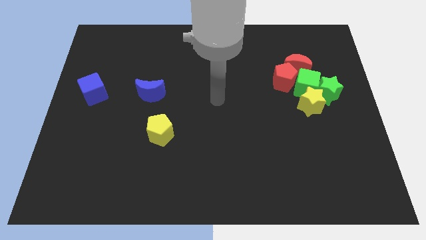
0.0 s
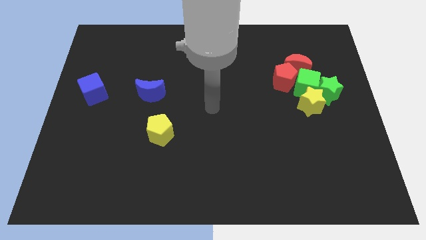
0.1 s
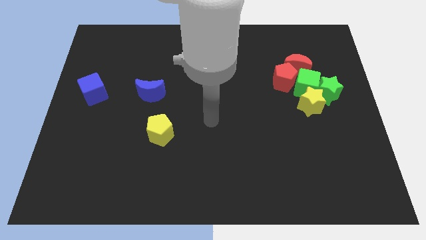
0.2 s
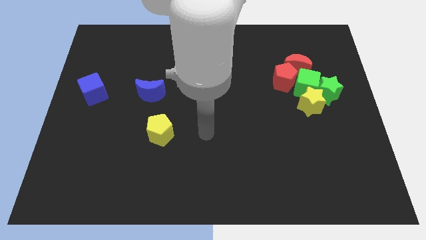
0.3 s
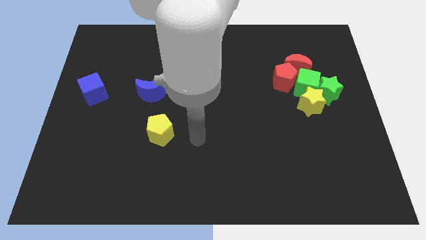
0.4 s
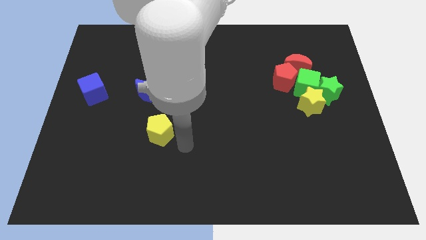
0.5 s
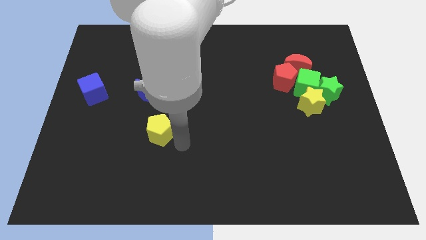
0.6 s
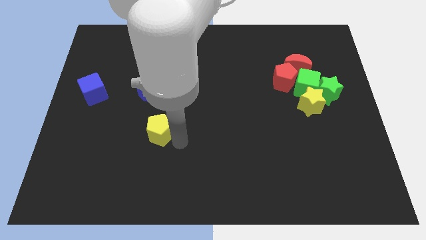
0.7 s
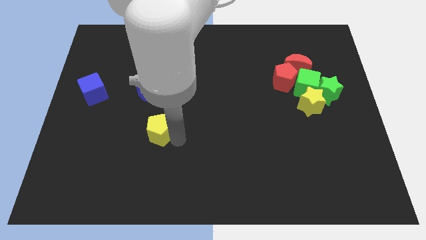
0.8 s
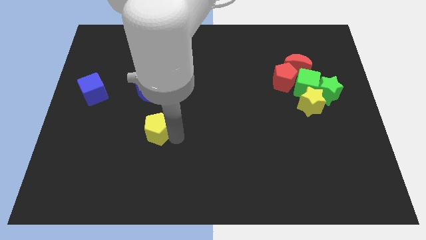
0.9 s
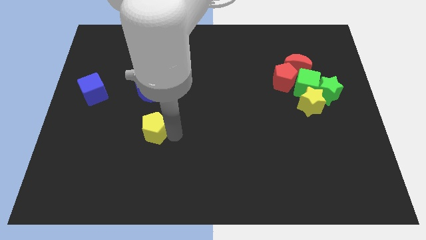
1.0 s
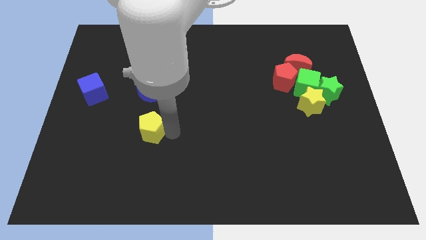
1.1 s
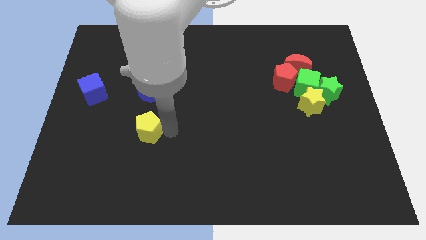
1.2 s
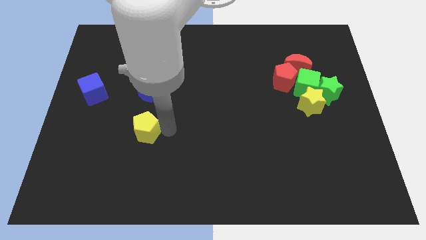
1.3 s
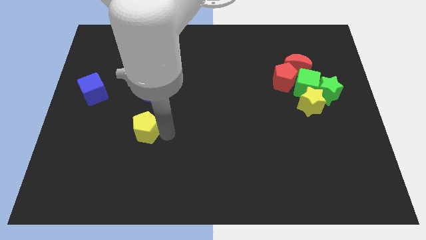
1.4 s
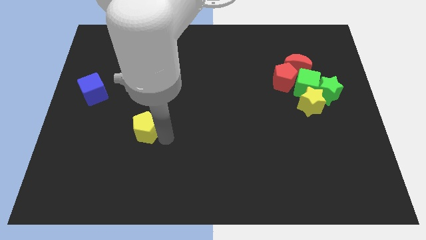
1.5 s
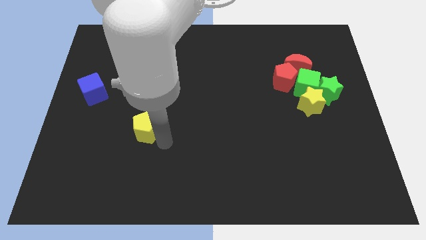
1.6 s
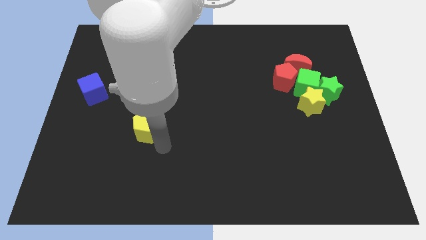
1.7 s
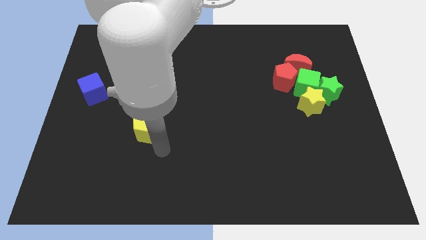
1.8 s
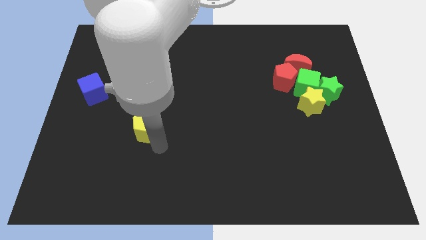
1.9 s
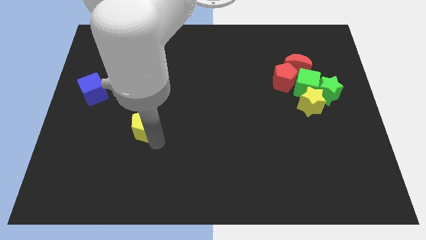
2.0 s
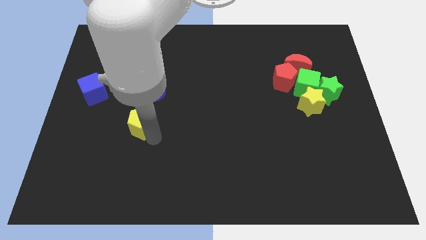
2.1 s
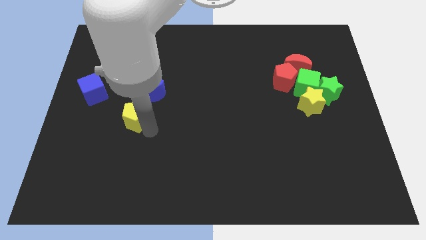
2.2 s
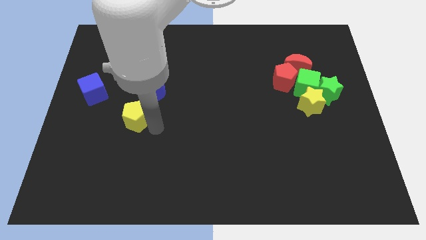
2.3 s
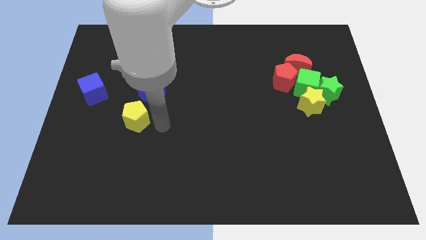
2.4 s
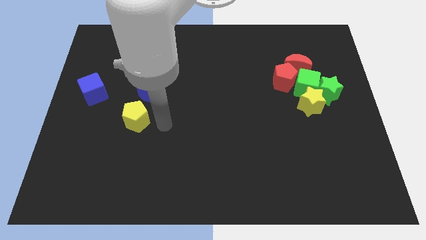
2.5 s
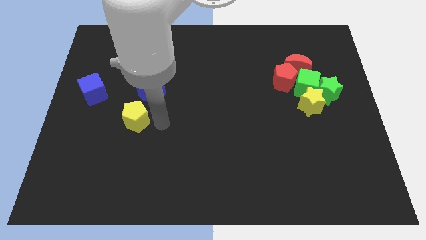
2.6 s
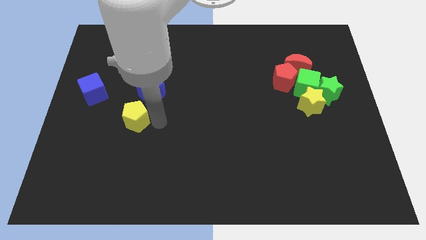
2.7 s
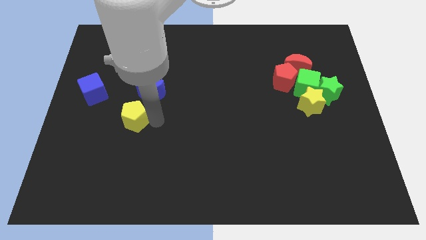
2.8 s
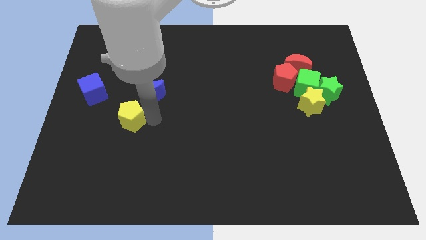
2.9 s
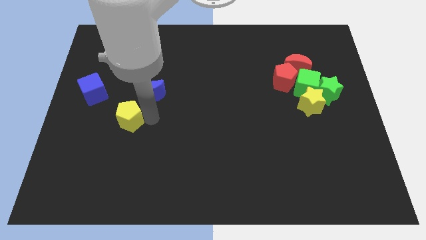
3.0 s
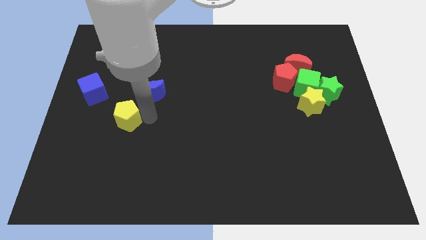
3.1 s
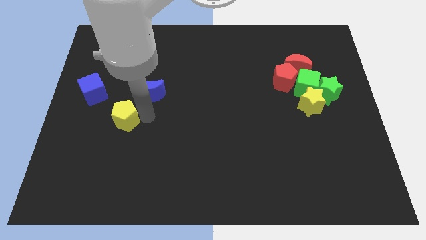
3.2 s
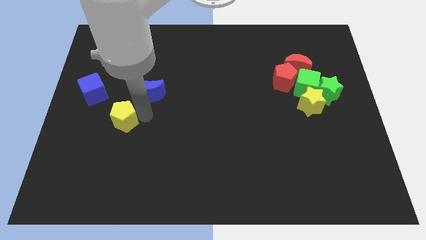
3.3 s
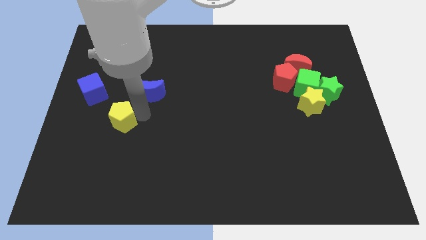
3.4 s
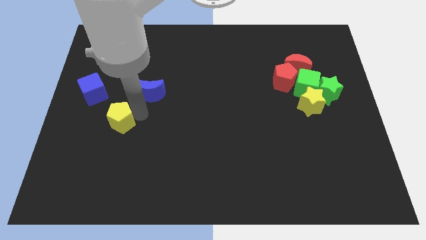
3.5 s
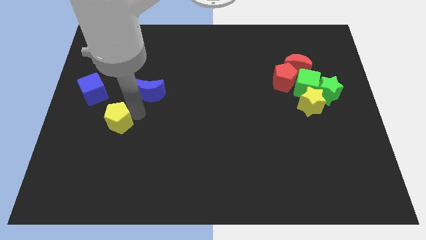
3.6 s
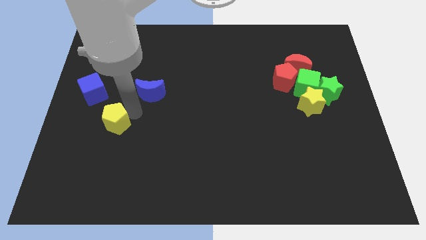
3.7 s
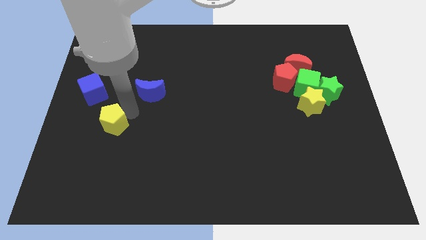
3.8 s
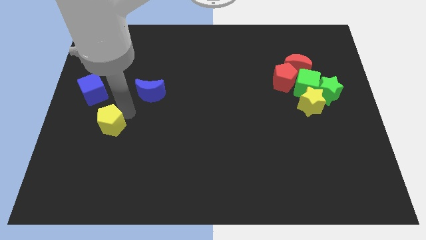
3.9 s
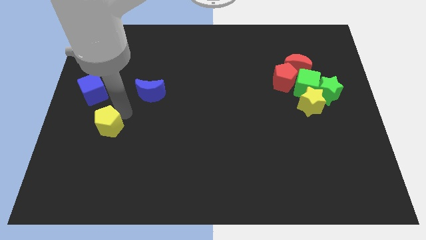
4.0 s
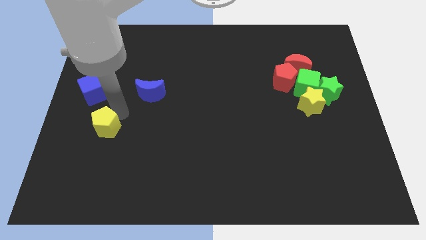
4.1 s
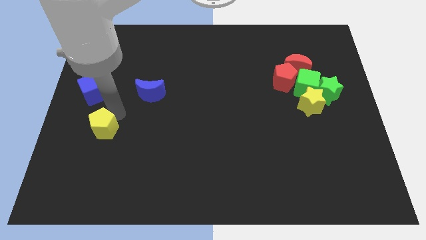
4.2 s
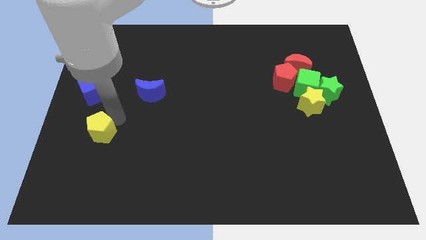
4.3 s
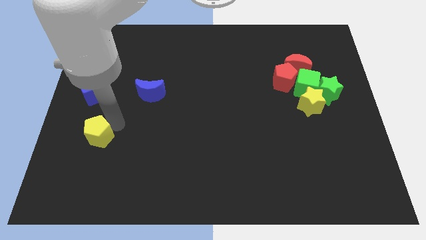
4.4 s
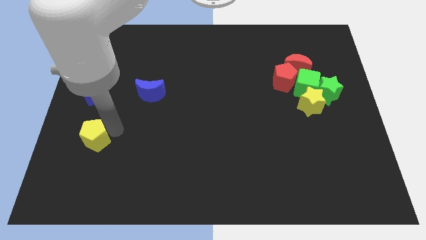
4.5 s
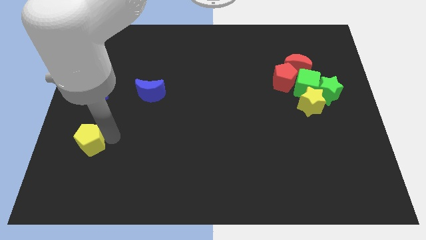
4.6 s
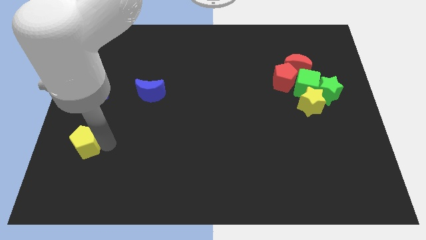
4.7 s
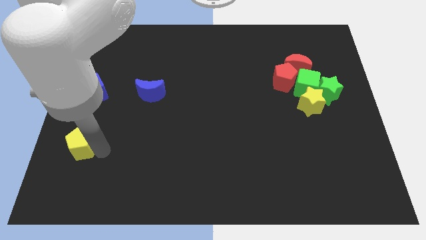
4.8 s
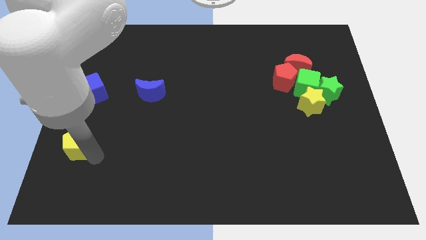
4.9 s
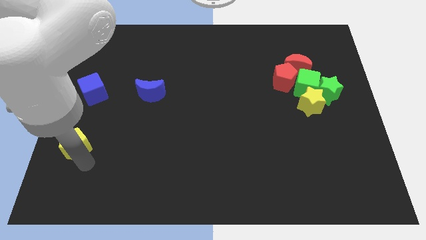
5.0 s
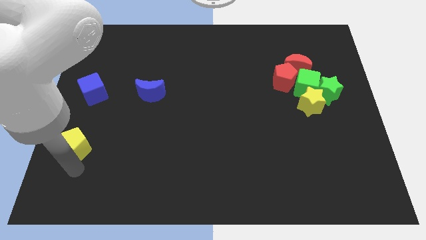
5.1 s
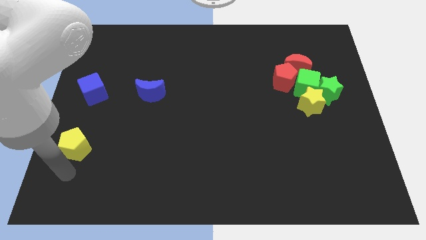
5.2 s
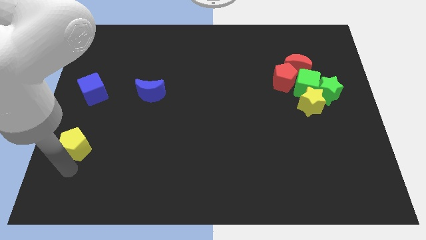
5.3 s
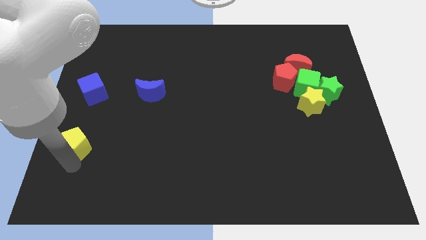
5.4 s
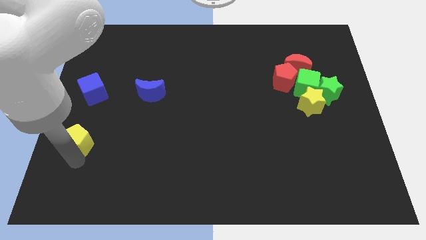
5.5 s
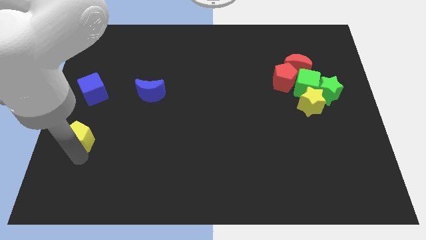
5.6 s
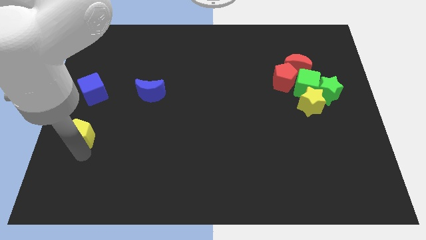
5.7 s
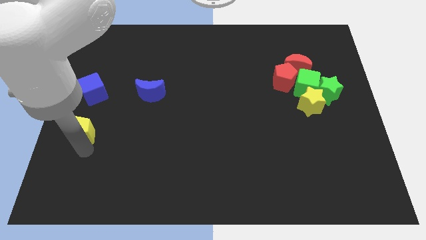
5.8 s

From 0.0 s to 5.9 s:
put the yellow pentagon to the center left

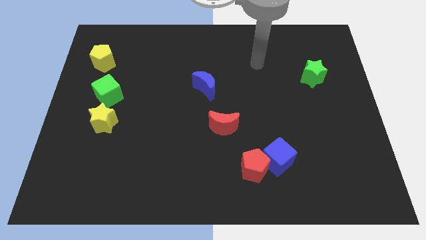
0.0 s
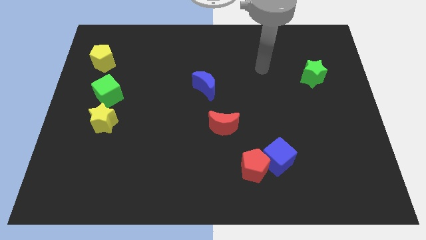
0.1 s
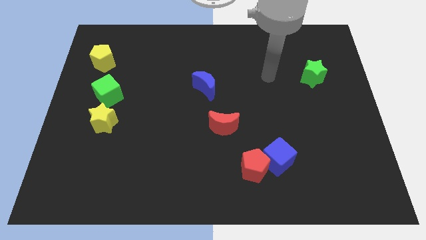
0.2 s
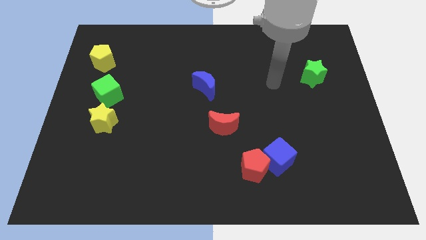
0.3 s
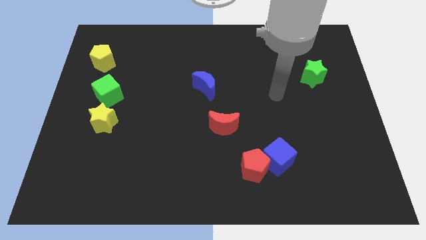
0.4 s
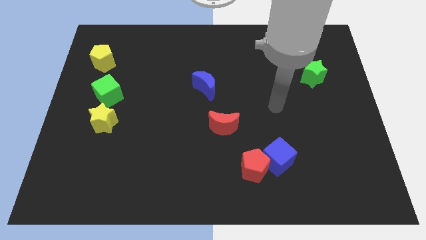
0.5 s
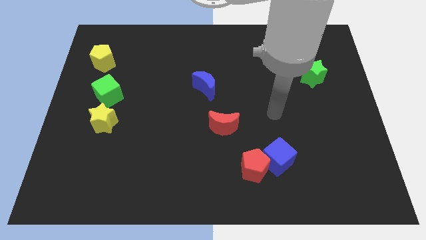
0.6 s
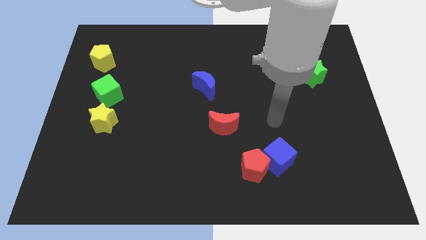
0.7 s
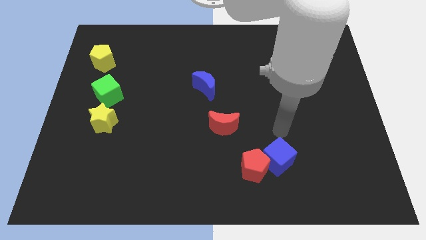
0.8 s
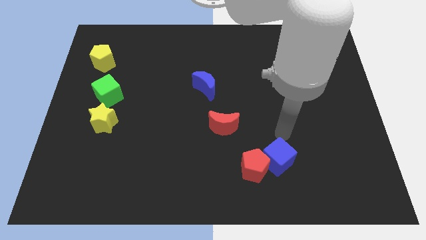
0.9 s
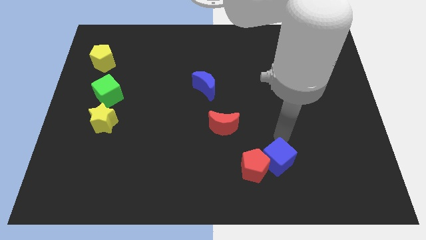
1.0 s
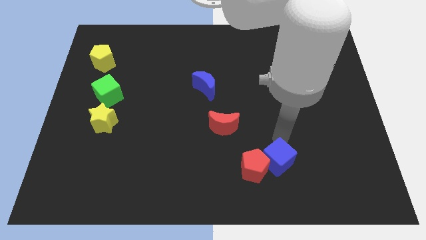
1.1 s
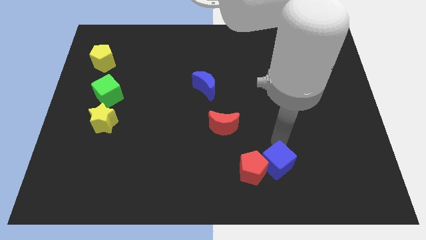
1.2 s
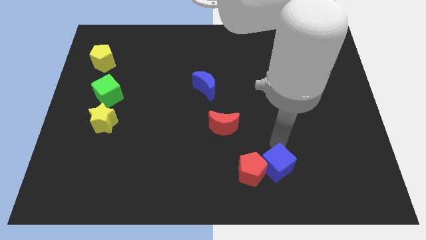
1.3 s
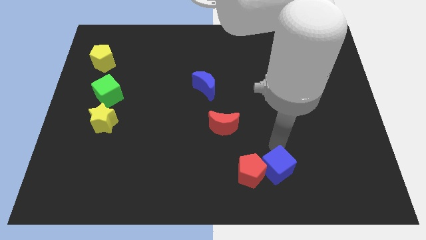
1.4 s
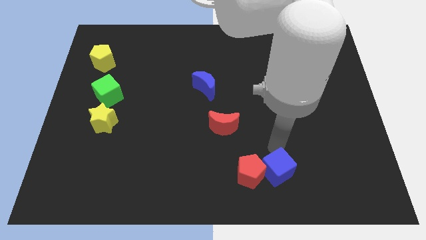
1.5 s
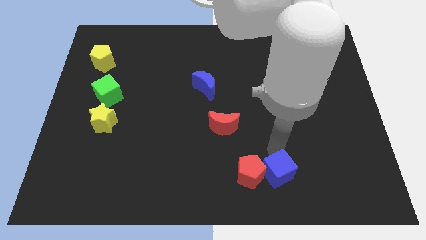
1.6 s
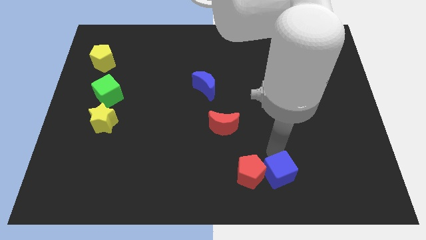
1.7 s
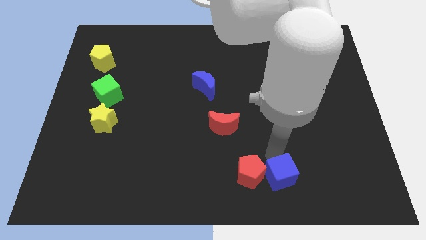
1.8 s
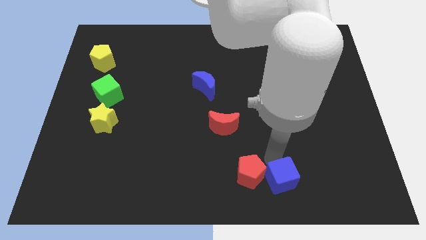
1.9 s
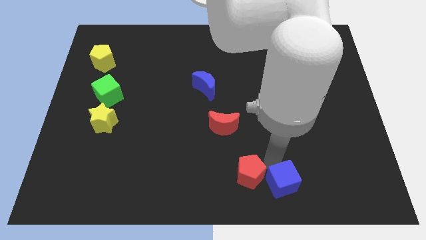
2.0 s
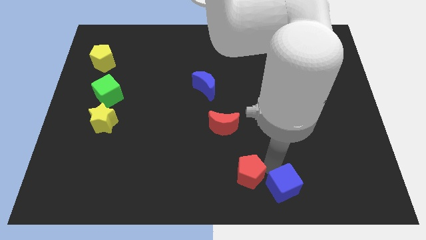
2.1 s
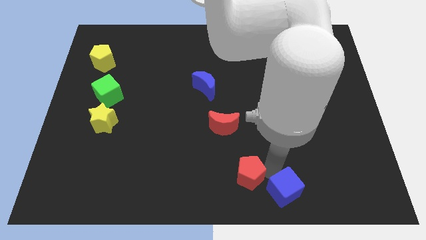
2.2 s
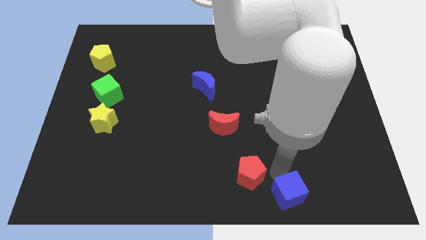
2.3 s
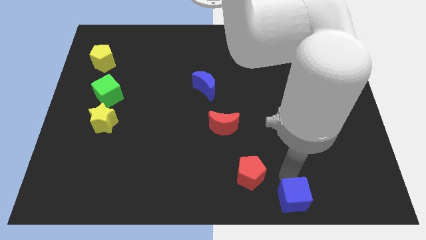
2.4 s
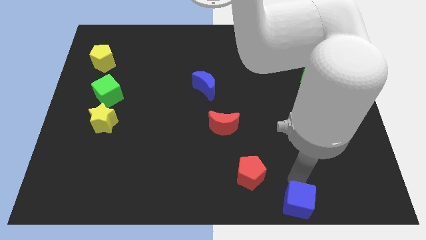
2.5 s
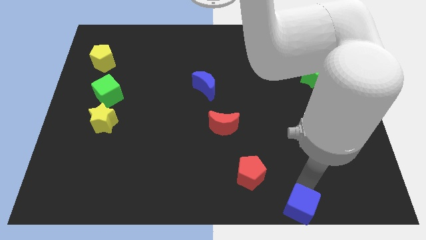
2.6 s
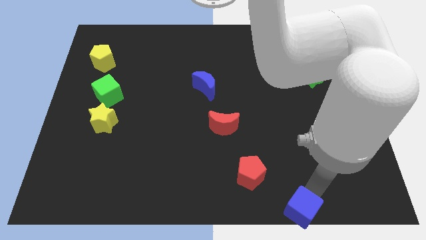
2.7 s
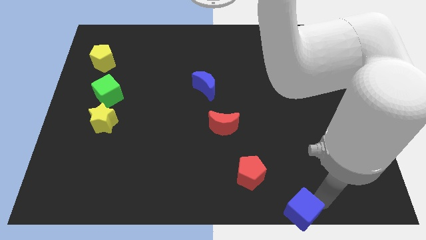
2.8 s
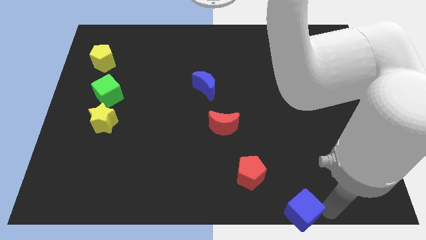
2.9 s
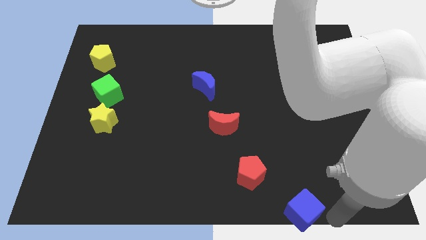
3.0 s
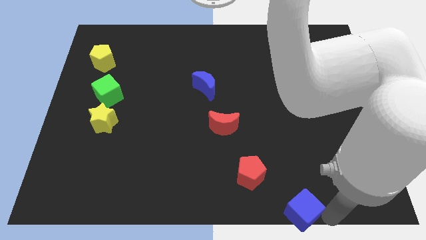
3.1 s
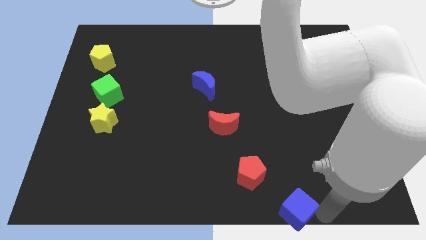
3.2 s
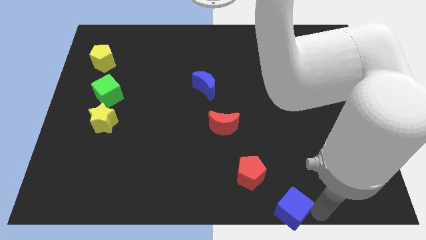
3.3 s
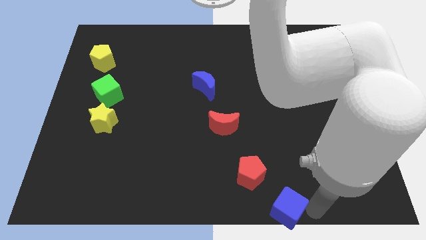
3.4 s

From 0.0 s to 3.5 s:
put the blue cube to the bottom
